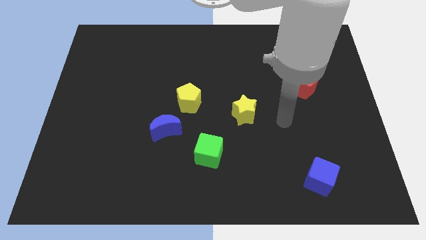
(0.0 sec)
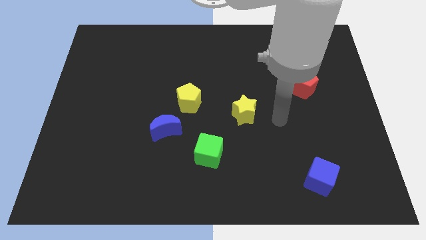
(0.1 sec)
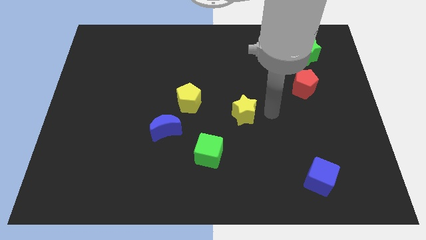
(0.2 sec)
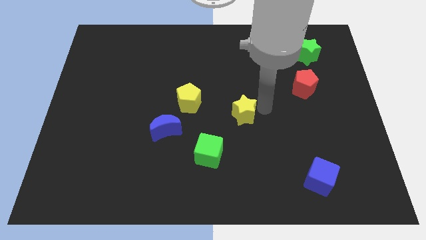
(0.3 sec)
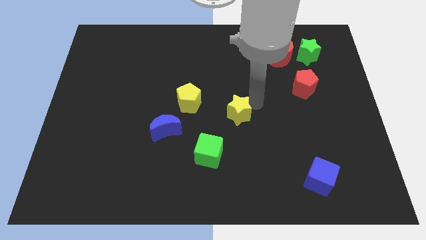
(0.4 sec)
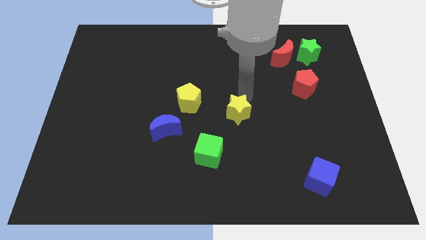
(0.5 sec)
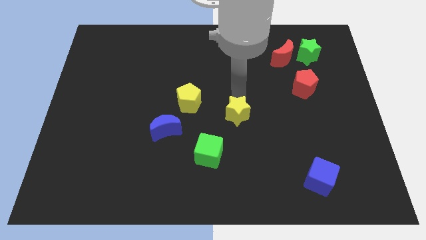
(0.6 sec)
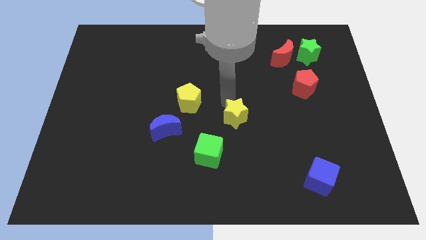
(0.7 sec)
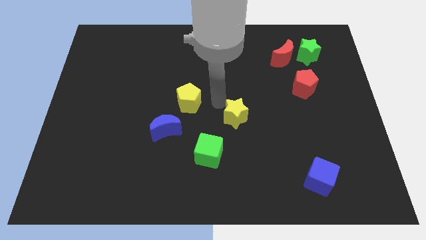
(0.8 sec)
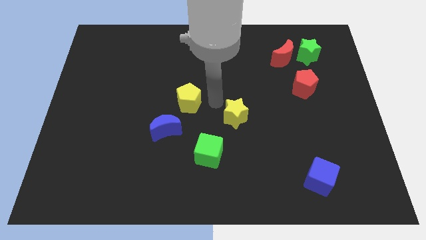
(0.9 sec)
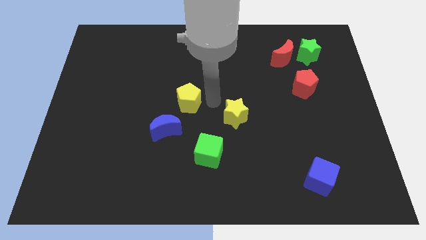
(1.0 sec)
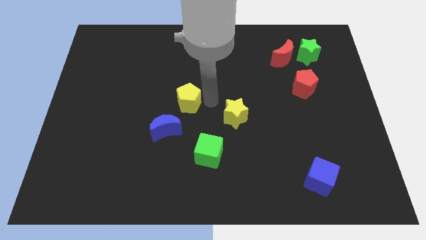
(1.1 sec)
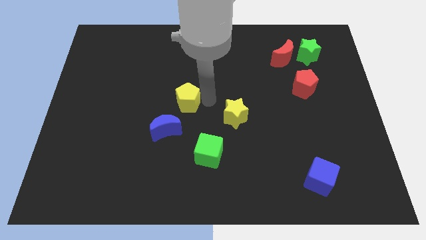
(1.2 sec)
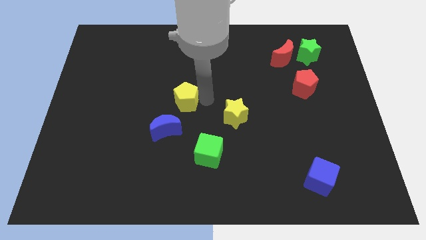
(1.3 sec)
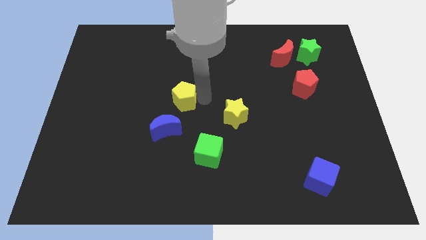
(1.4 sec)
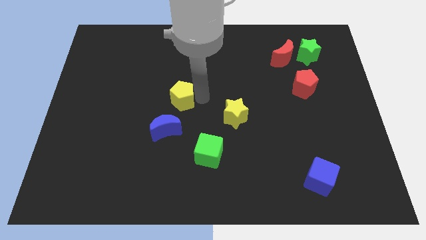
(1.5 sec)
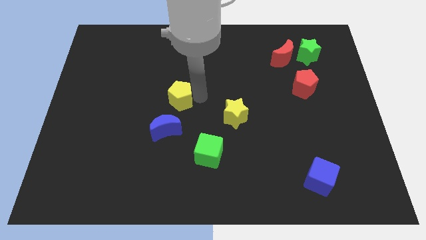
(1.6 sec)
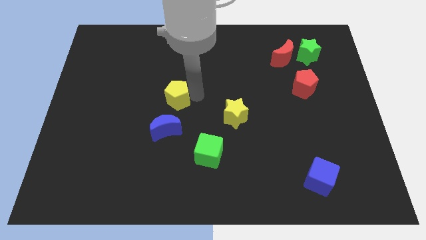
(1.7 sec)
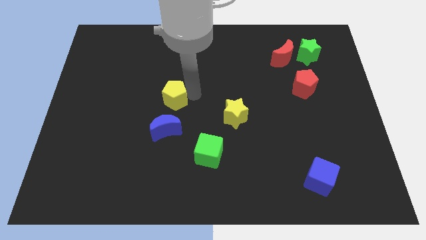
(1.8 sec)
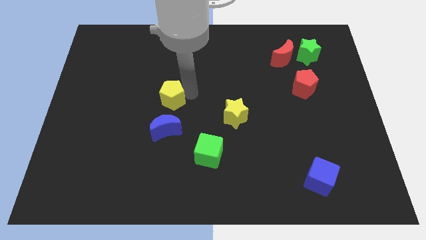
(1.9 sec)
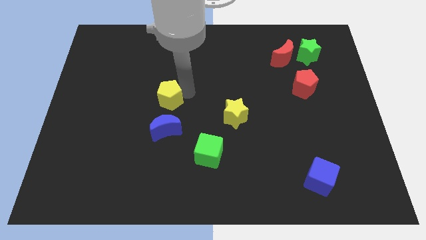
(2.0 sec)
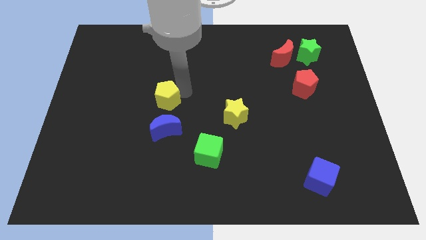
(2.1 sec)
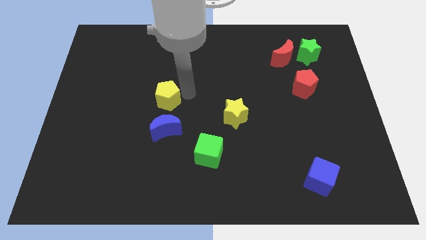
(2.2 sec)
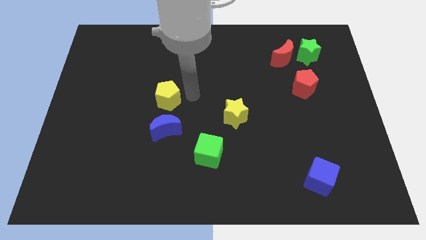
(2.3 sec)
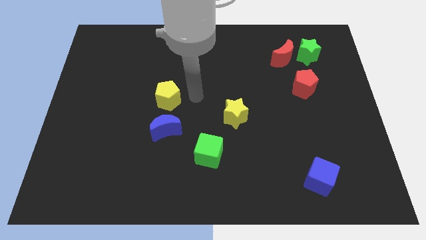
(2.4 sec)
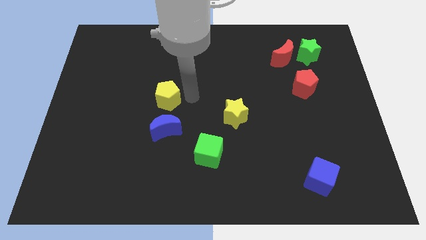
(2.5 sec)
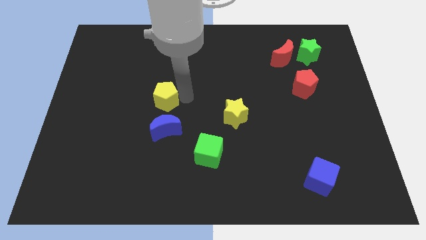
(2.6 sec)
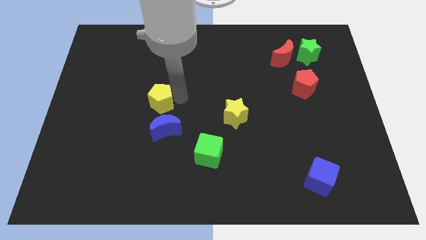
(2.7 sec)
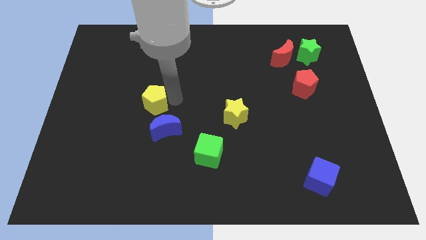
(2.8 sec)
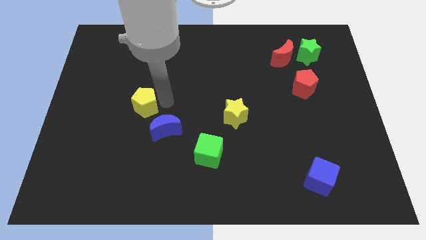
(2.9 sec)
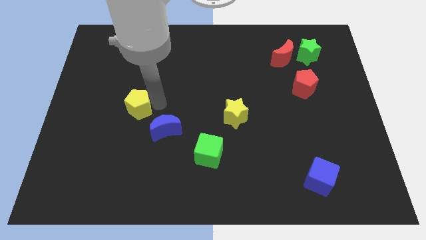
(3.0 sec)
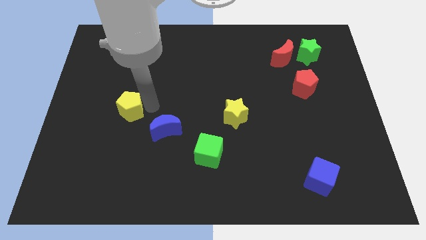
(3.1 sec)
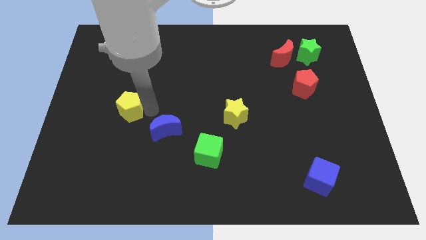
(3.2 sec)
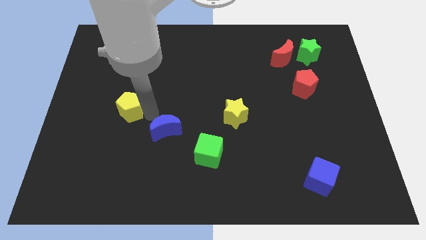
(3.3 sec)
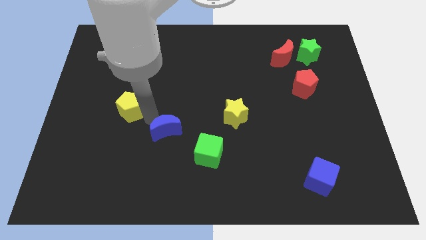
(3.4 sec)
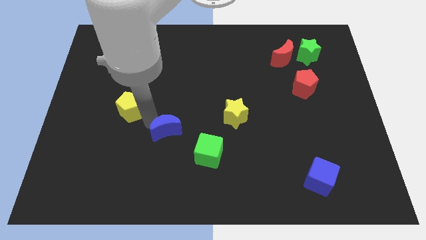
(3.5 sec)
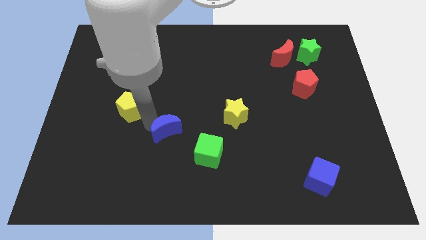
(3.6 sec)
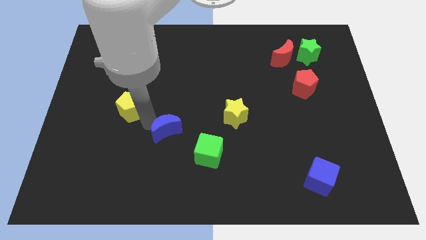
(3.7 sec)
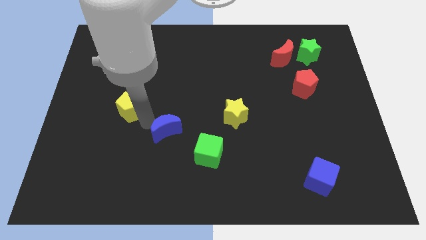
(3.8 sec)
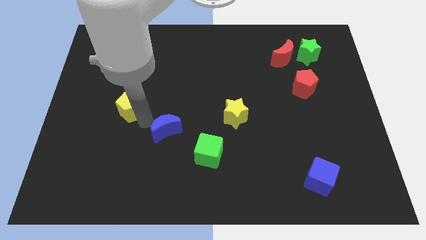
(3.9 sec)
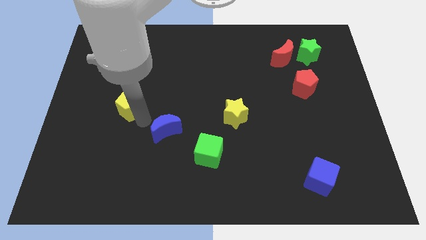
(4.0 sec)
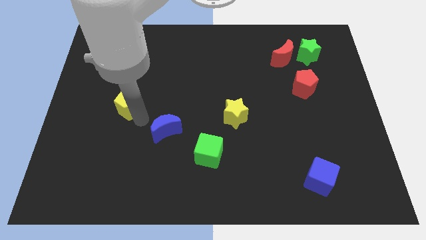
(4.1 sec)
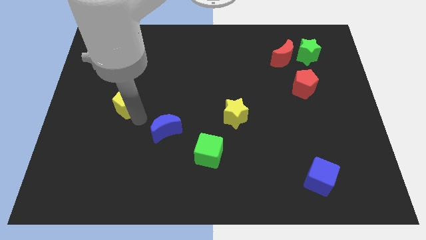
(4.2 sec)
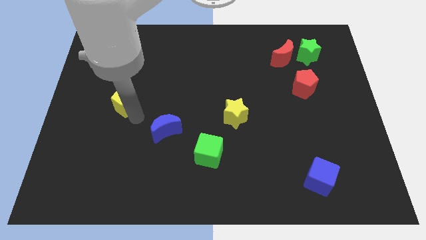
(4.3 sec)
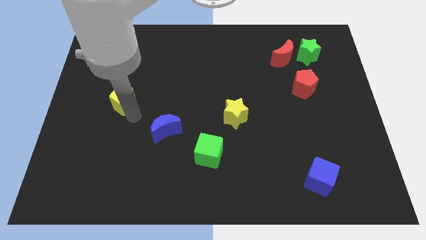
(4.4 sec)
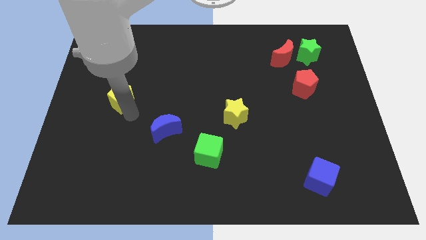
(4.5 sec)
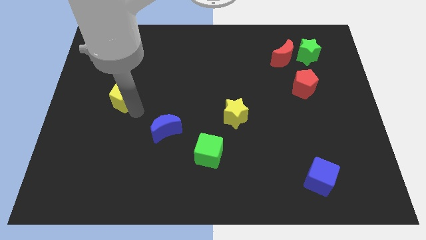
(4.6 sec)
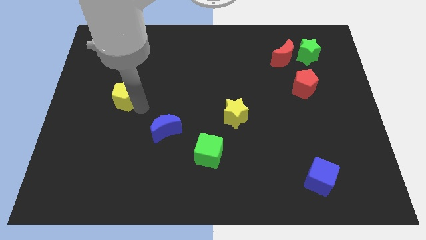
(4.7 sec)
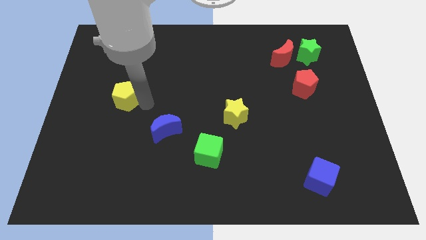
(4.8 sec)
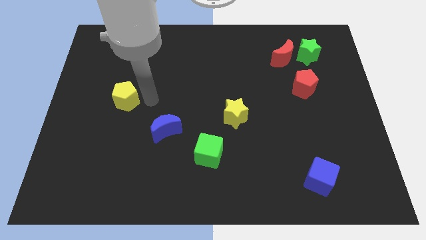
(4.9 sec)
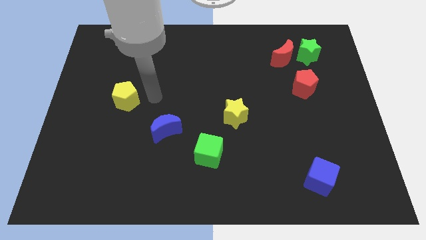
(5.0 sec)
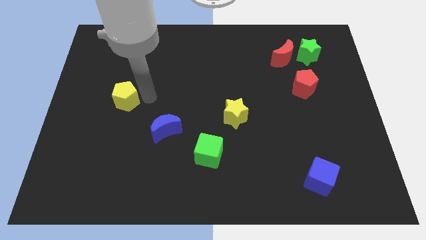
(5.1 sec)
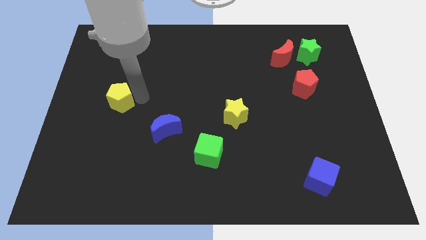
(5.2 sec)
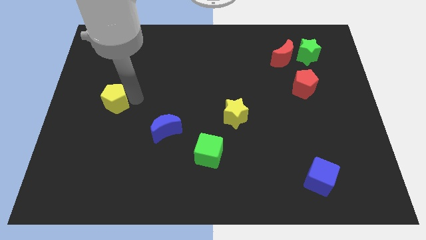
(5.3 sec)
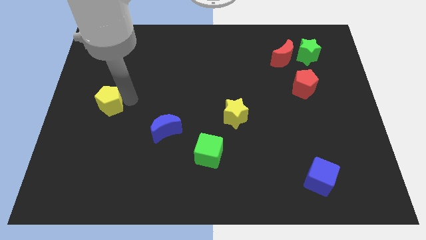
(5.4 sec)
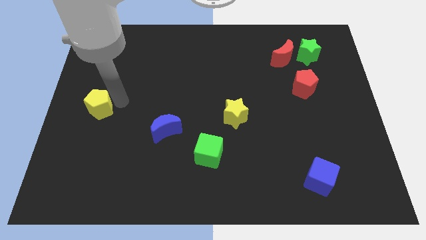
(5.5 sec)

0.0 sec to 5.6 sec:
put the yellow pentagon to the center left

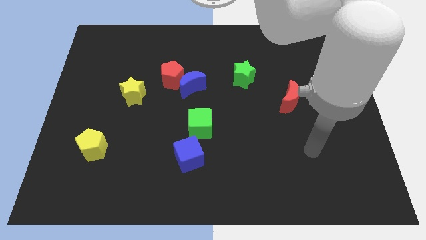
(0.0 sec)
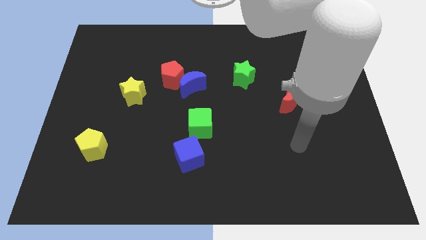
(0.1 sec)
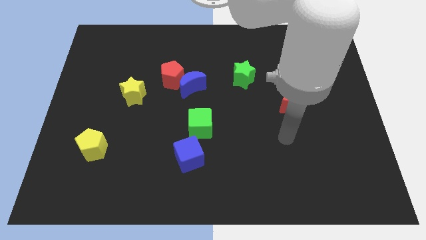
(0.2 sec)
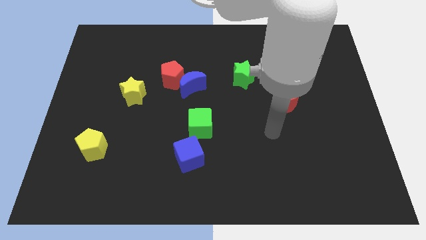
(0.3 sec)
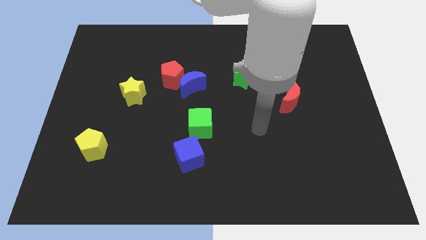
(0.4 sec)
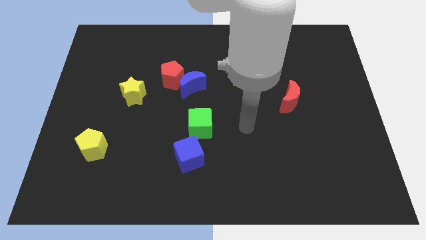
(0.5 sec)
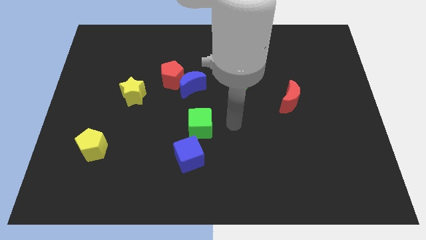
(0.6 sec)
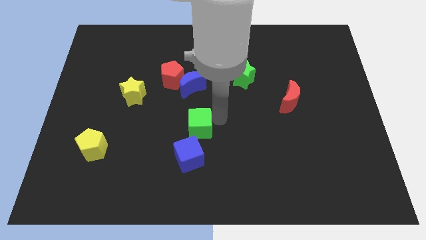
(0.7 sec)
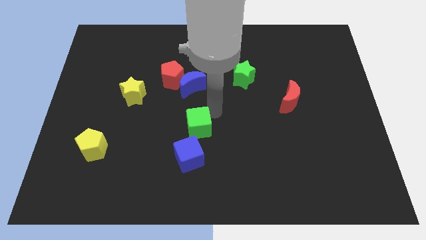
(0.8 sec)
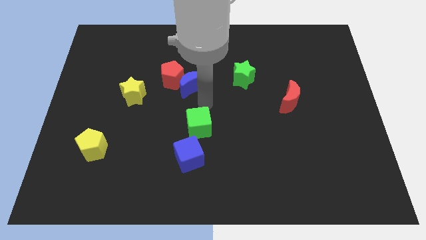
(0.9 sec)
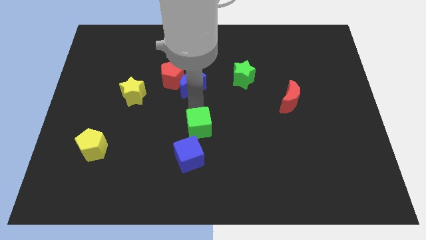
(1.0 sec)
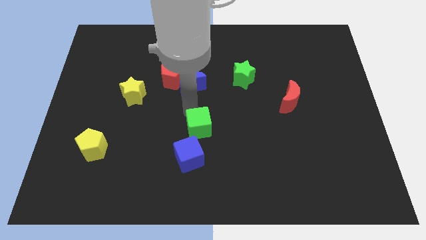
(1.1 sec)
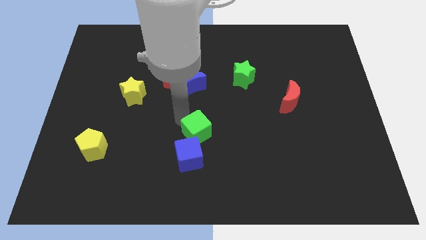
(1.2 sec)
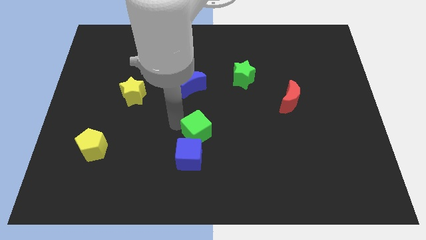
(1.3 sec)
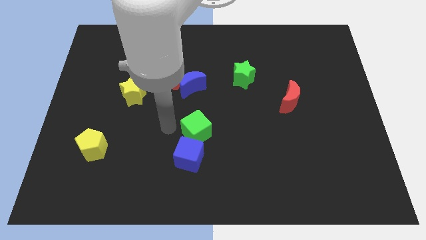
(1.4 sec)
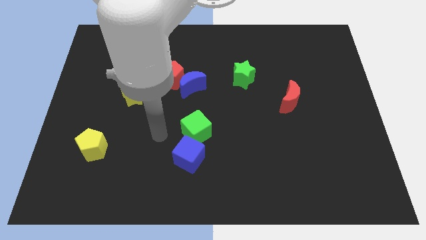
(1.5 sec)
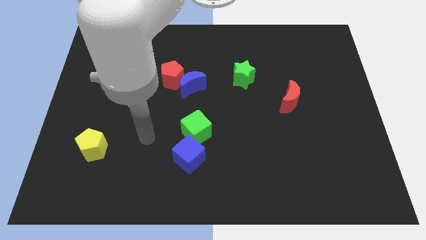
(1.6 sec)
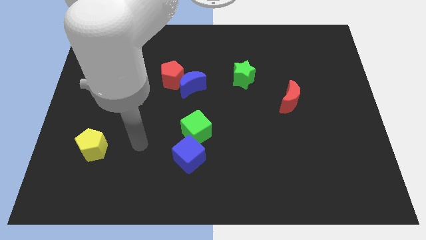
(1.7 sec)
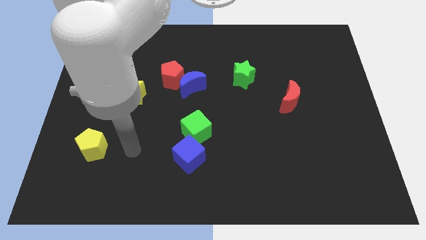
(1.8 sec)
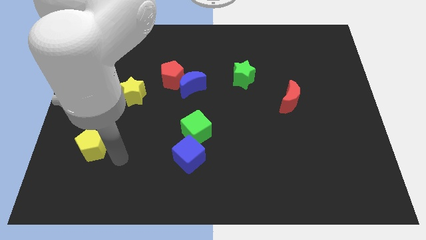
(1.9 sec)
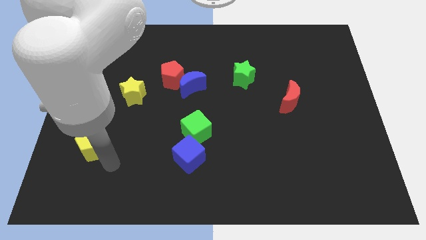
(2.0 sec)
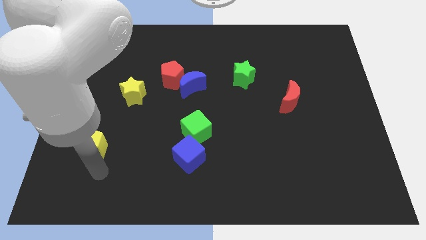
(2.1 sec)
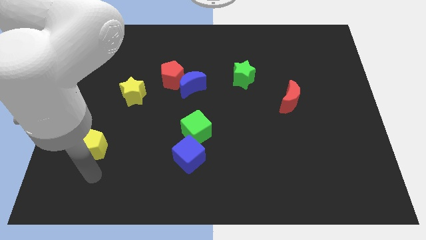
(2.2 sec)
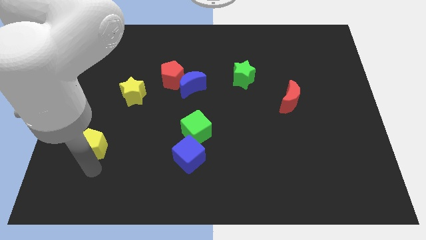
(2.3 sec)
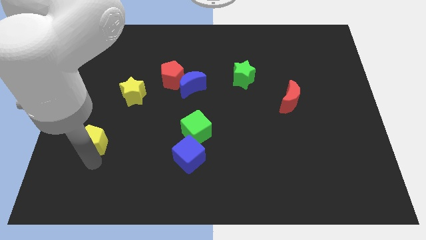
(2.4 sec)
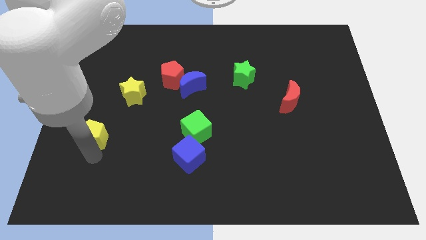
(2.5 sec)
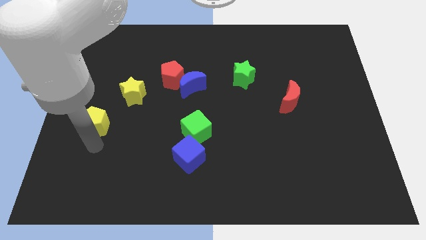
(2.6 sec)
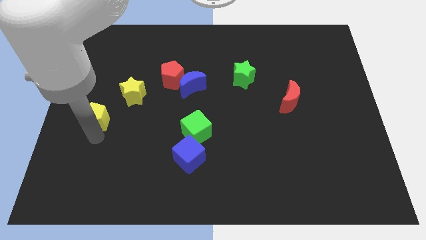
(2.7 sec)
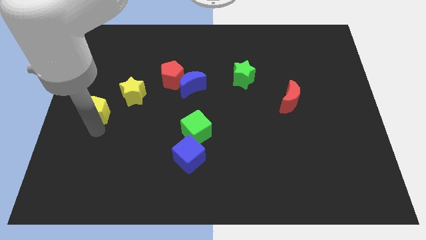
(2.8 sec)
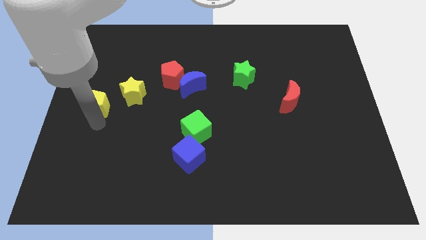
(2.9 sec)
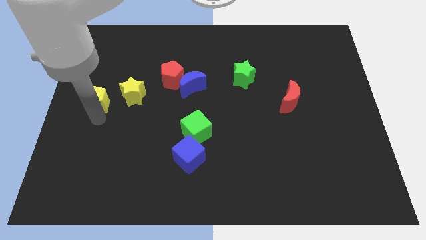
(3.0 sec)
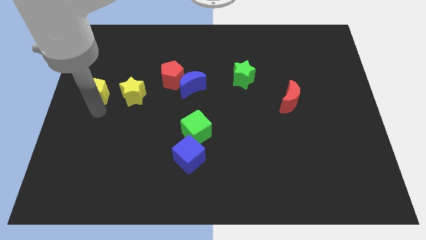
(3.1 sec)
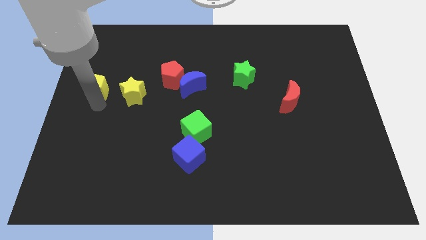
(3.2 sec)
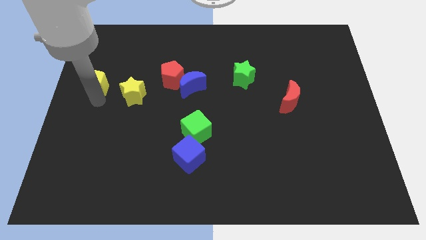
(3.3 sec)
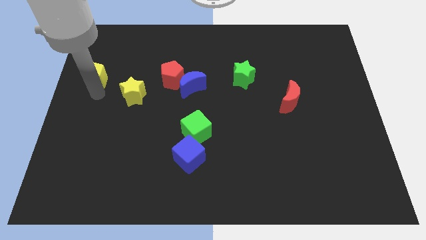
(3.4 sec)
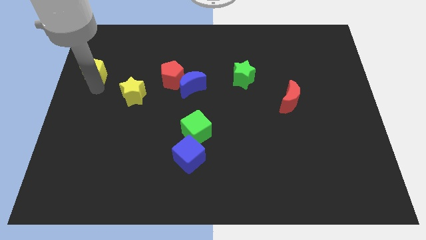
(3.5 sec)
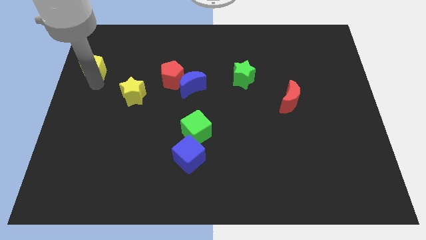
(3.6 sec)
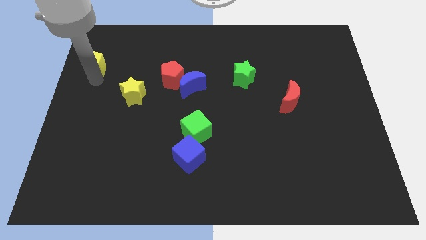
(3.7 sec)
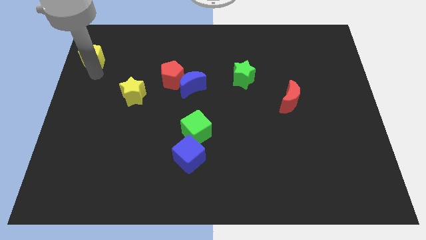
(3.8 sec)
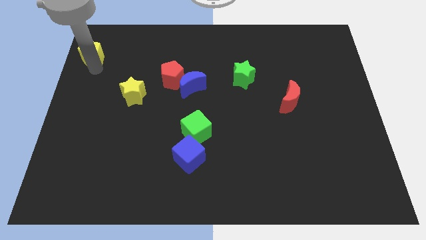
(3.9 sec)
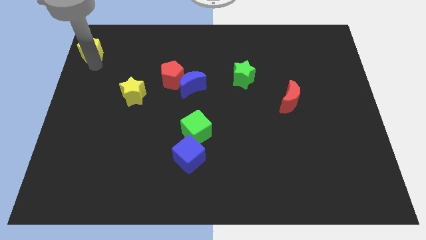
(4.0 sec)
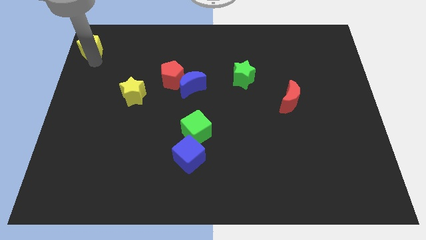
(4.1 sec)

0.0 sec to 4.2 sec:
move the yellow pentagon to the upper left corner
